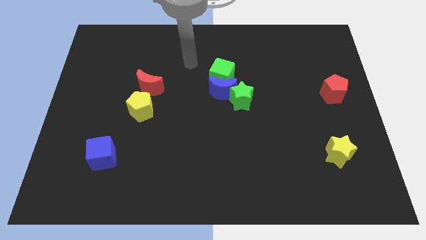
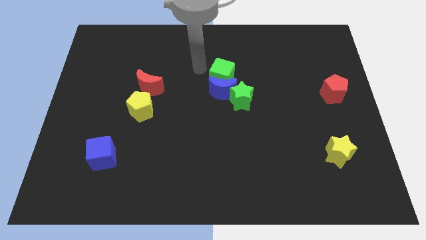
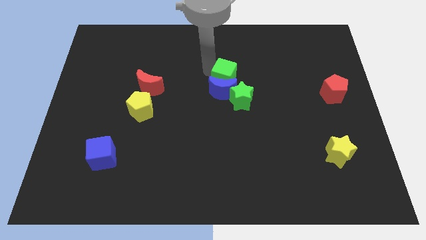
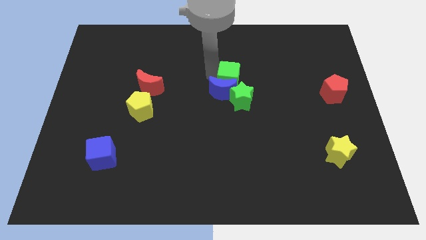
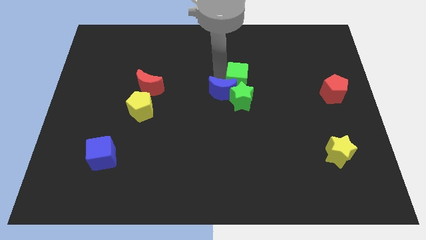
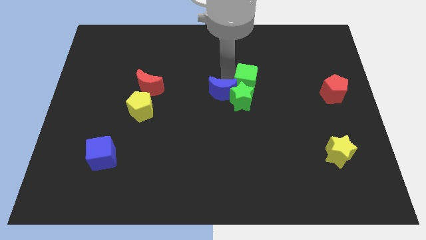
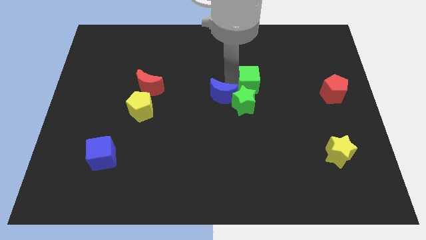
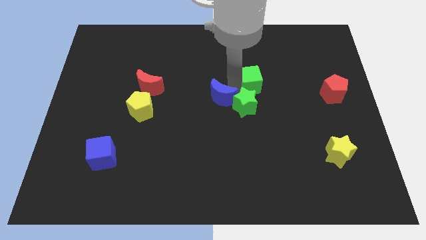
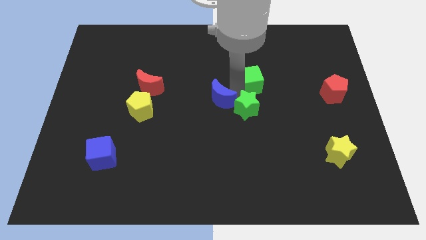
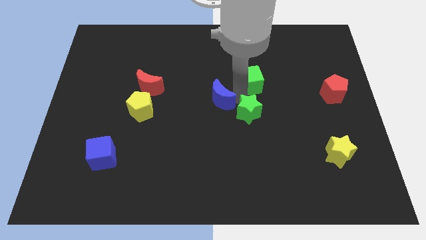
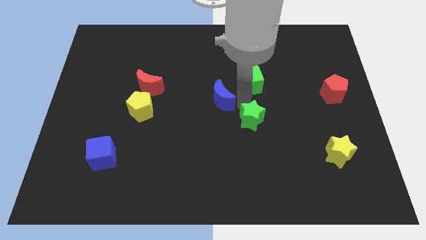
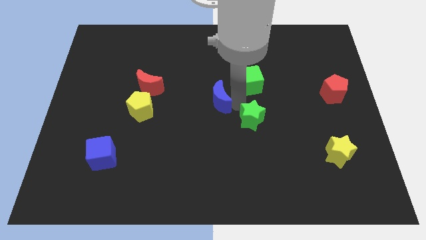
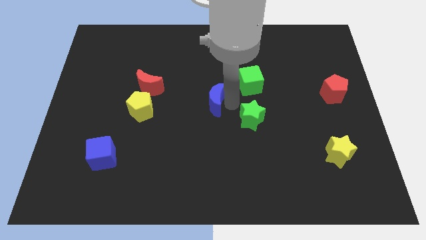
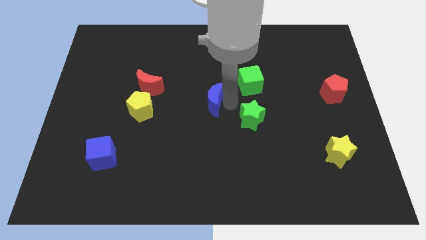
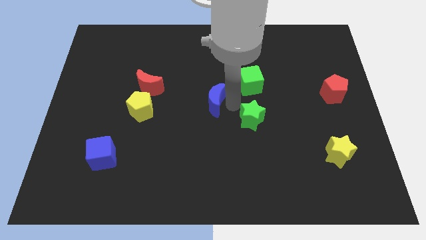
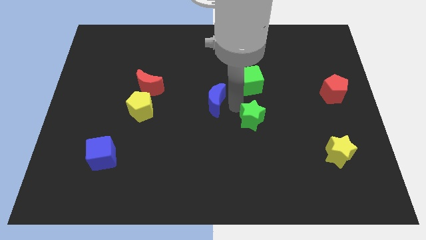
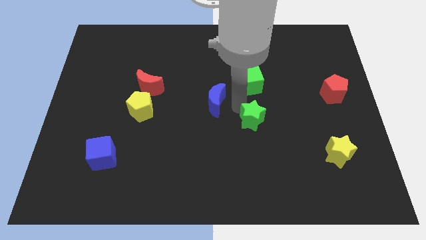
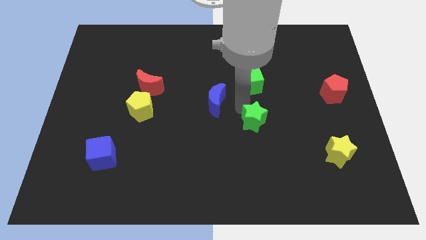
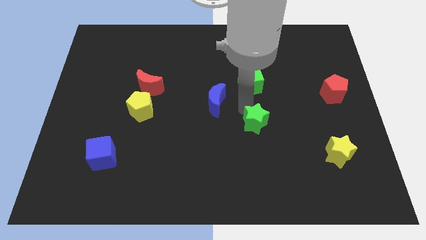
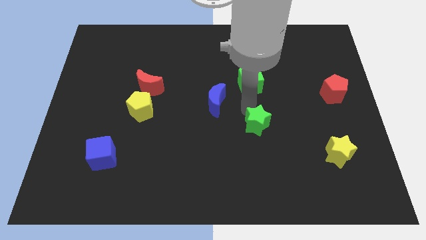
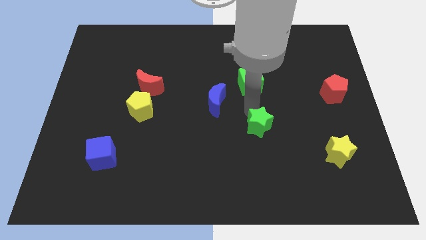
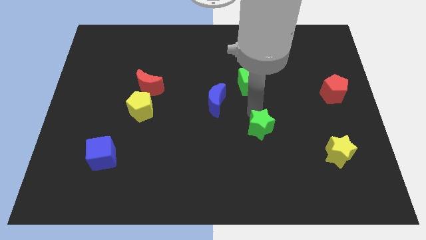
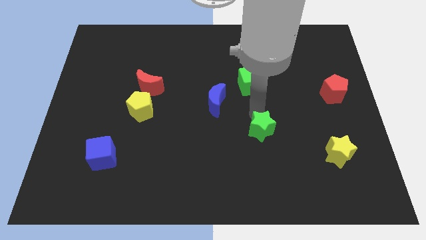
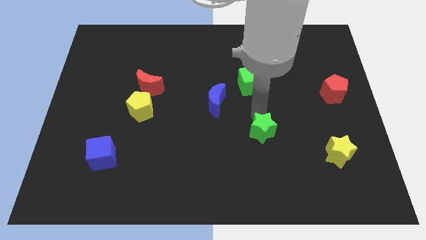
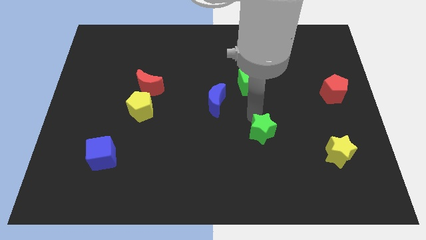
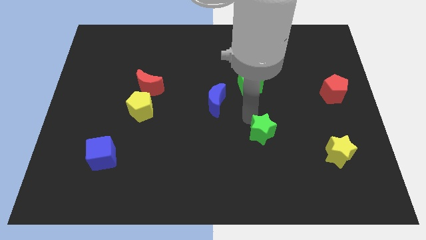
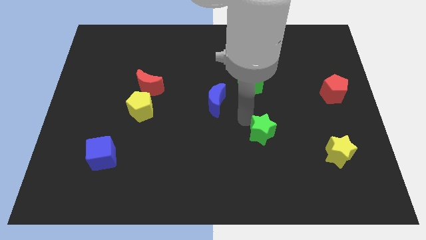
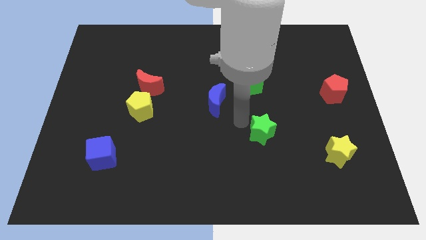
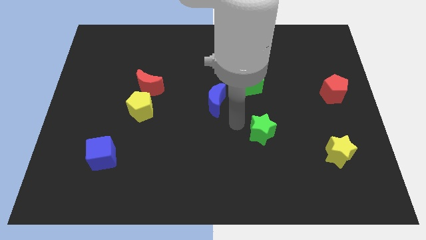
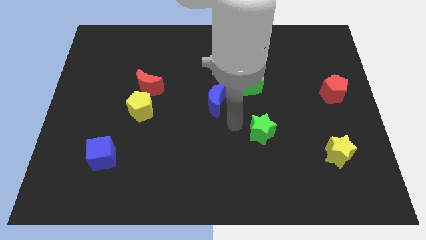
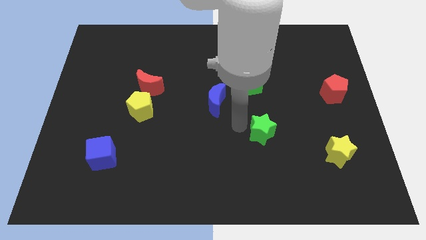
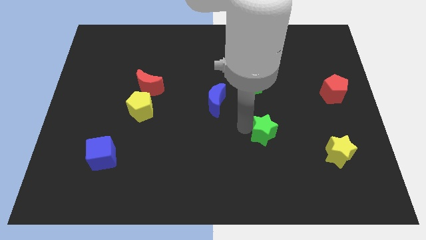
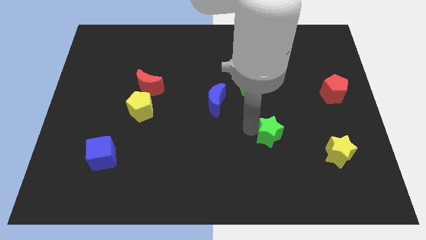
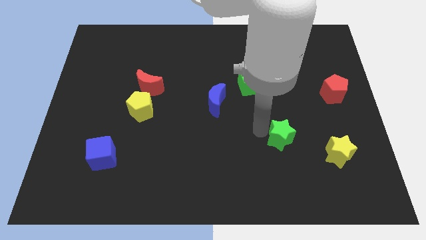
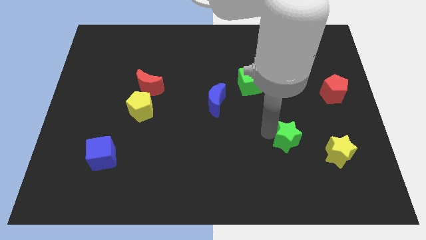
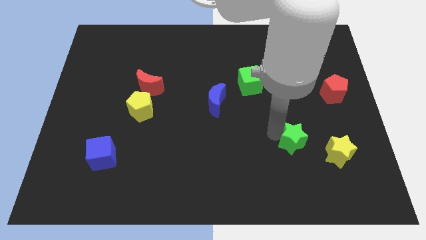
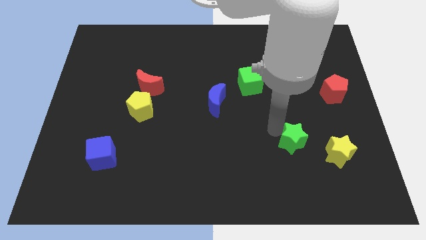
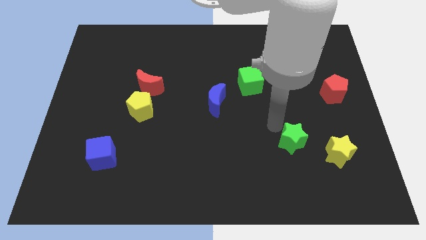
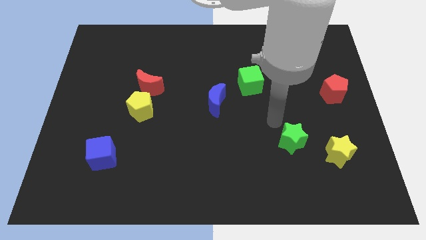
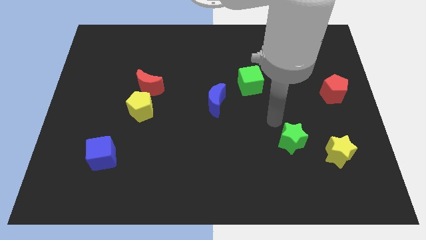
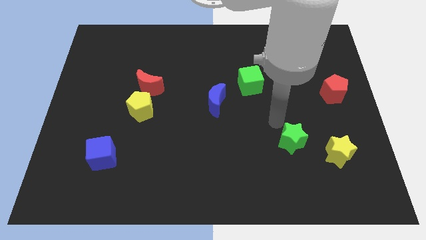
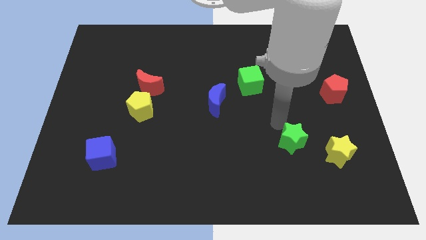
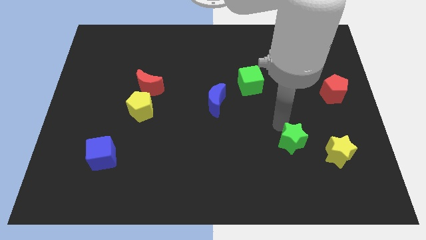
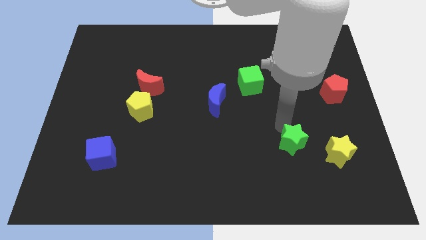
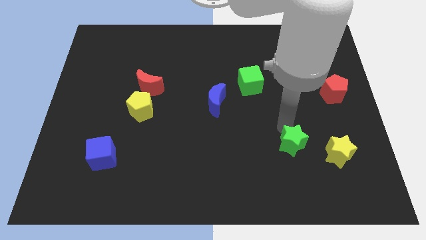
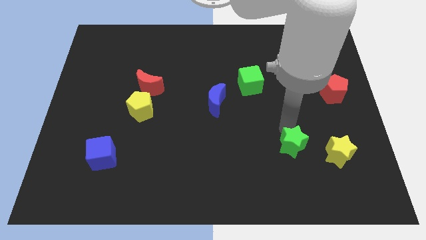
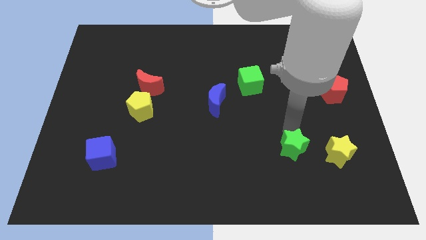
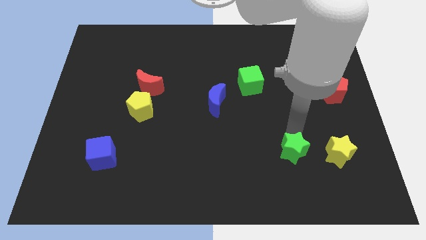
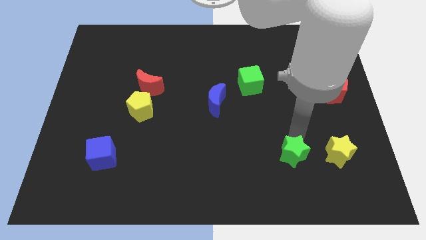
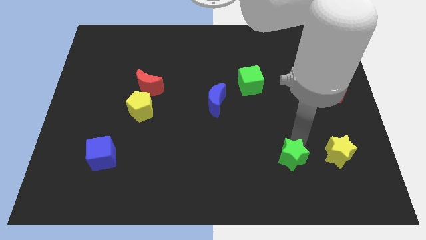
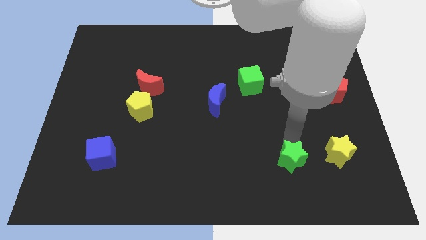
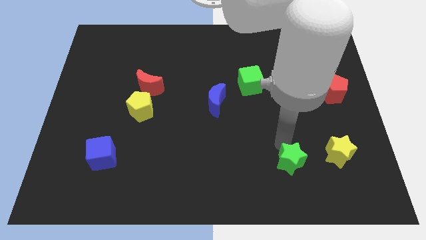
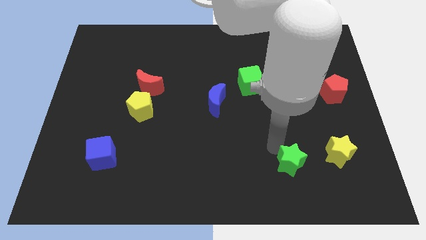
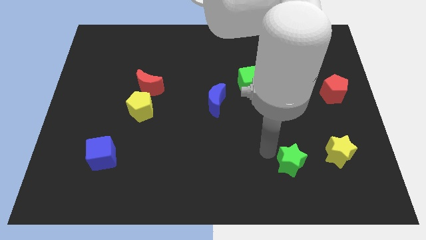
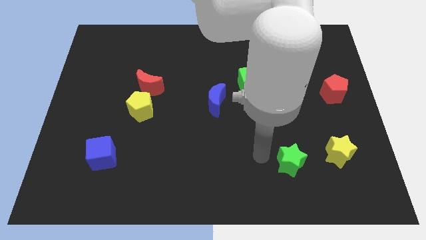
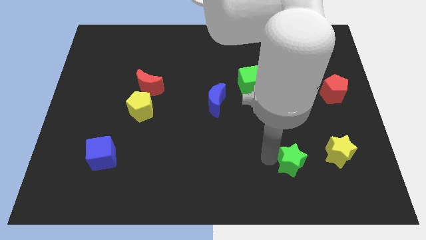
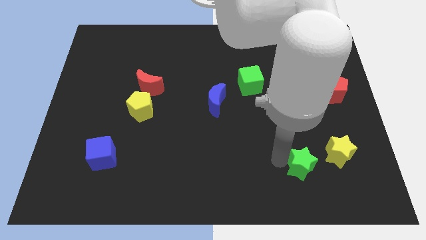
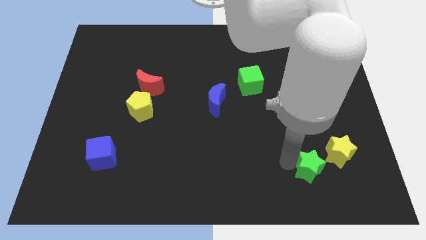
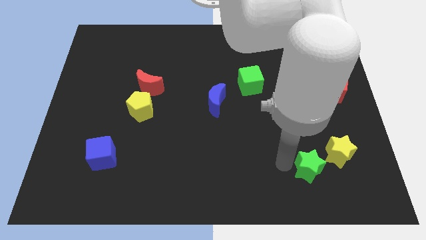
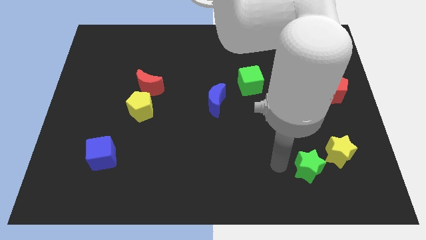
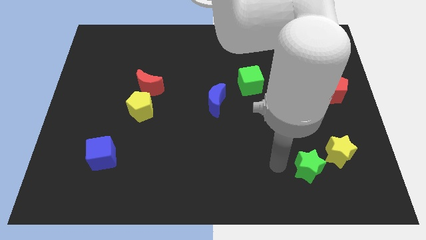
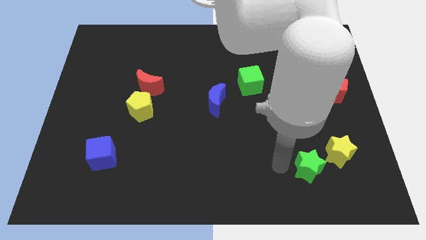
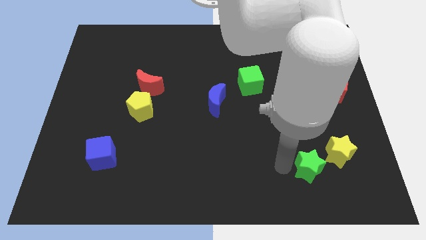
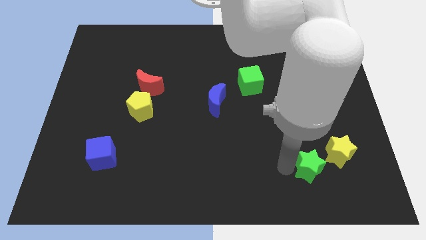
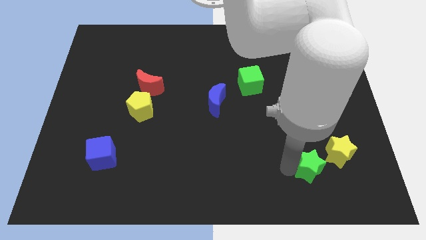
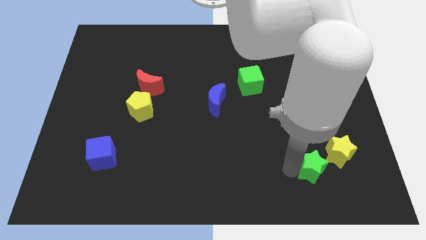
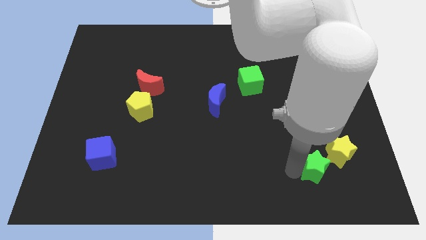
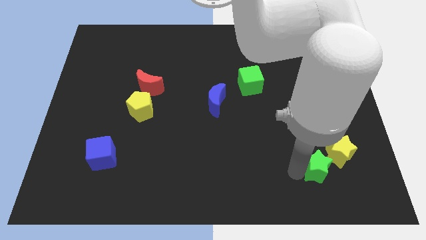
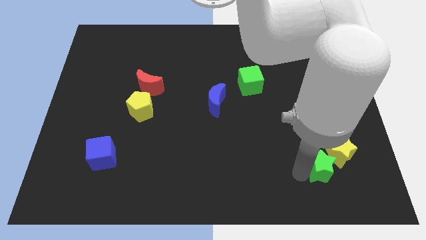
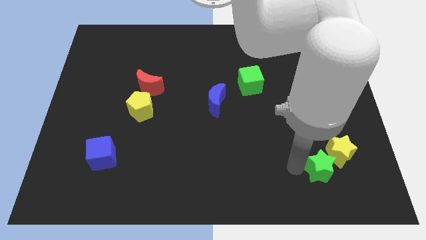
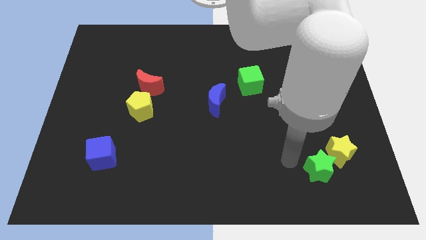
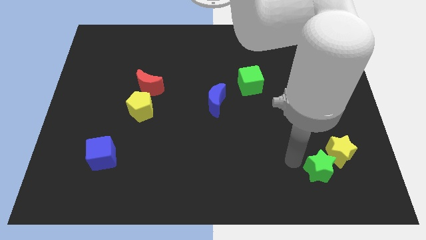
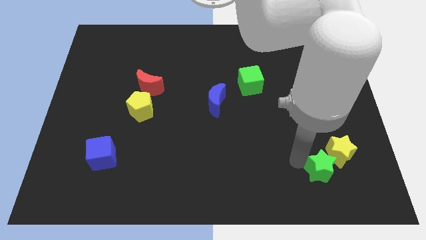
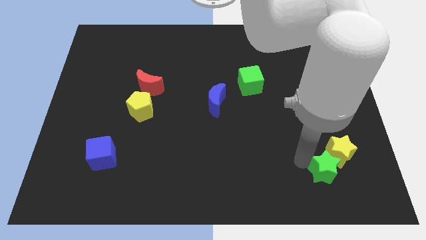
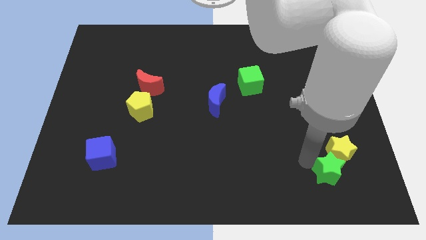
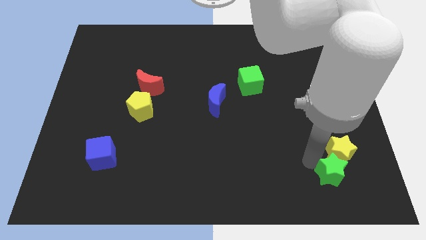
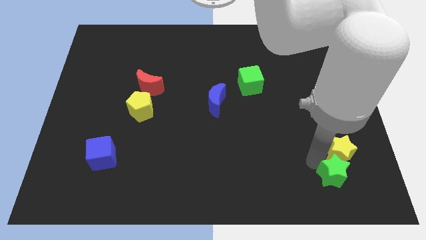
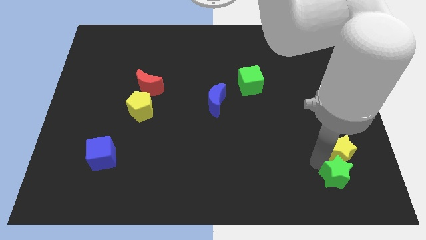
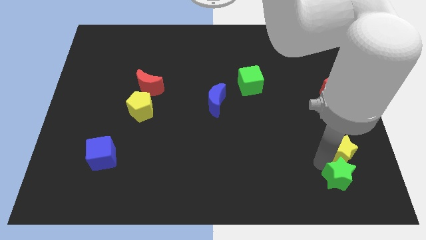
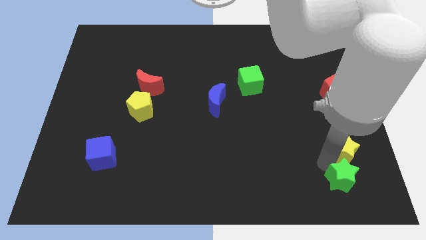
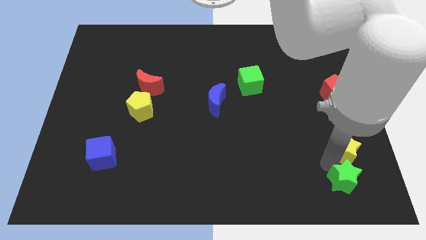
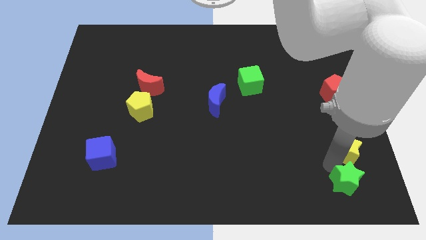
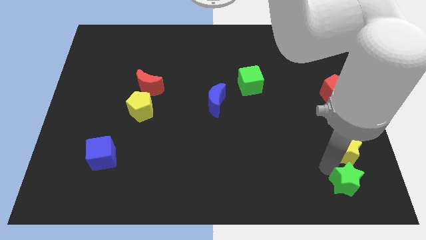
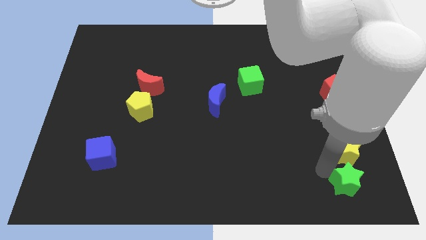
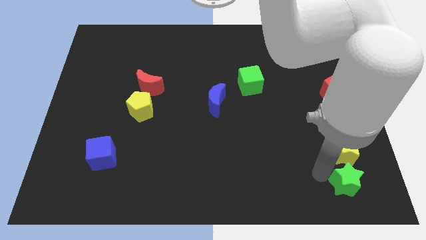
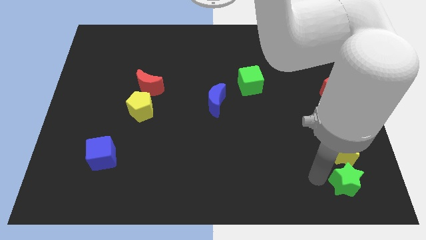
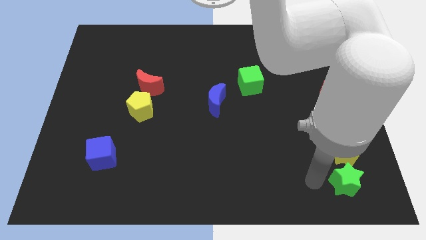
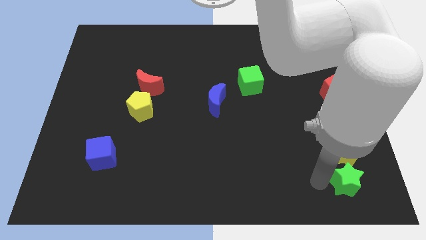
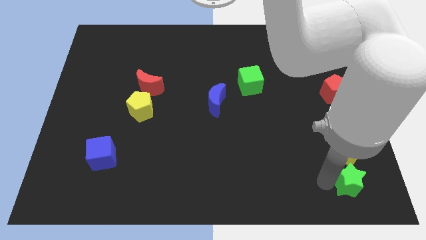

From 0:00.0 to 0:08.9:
slide the green star to the lower right corner
